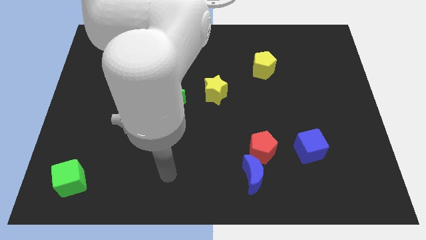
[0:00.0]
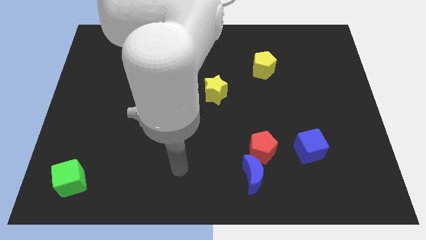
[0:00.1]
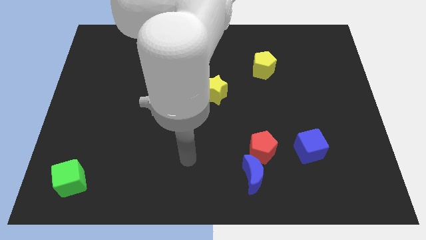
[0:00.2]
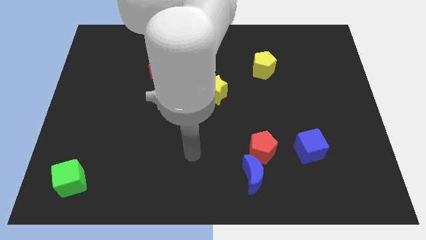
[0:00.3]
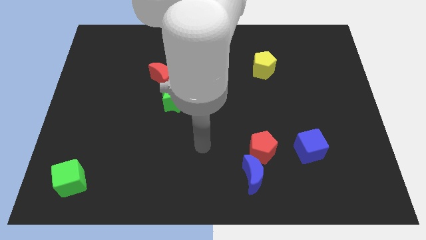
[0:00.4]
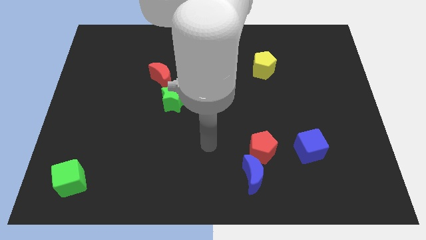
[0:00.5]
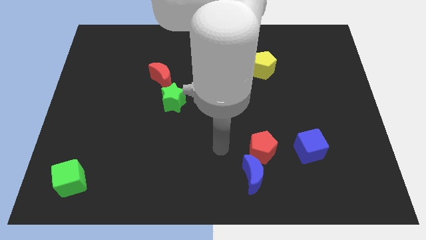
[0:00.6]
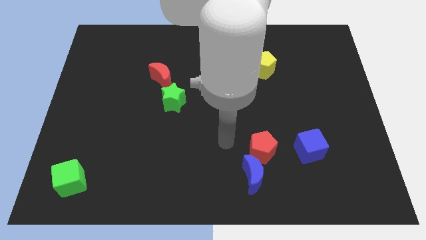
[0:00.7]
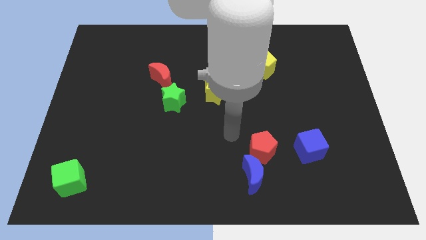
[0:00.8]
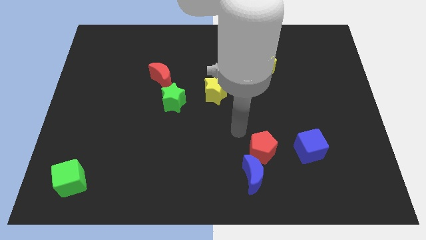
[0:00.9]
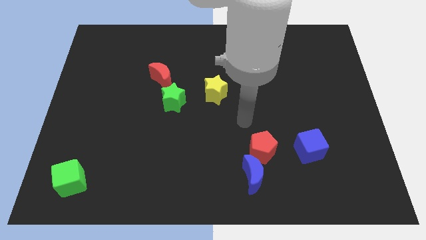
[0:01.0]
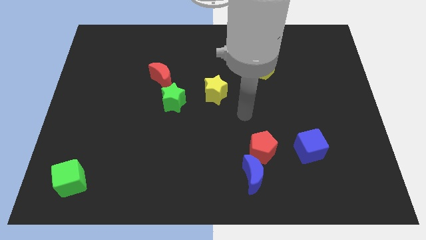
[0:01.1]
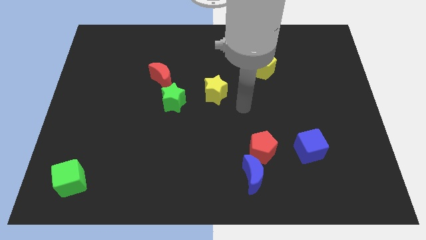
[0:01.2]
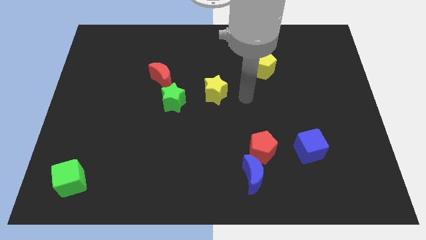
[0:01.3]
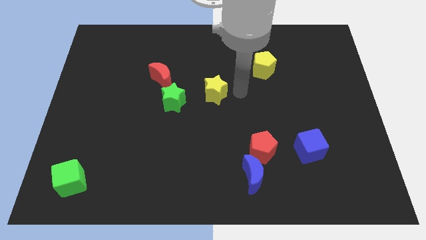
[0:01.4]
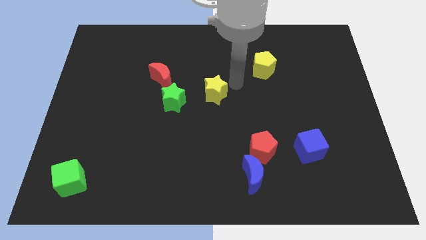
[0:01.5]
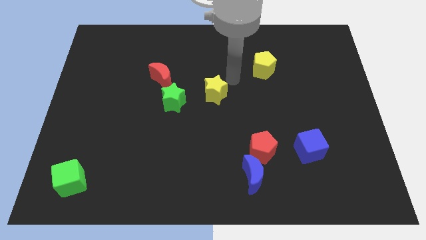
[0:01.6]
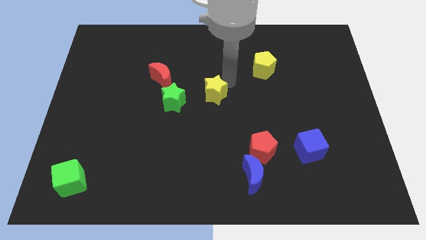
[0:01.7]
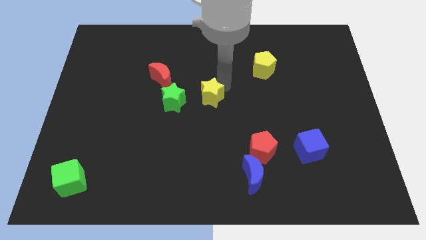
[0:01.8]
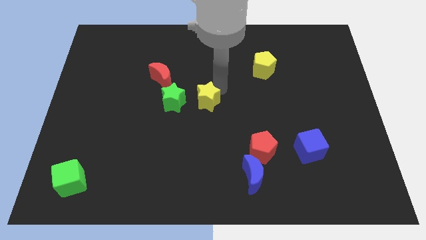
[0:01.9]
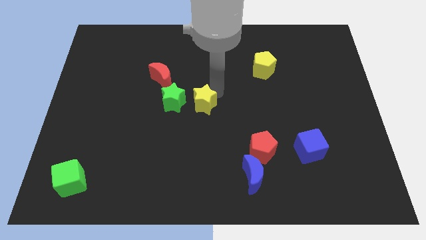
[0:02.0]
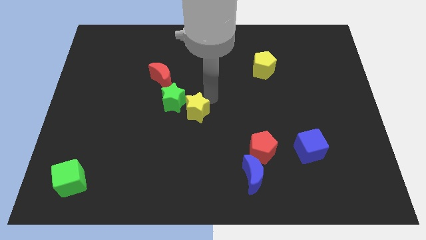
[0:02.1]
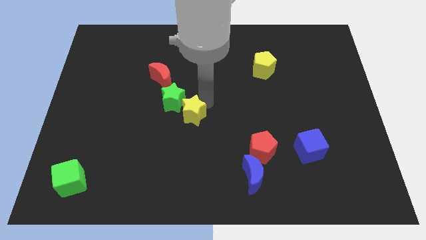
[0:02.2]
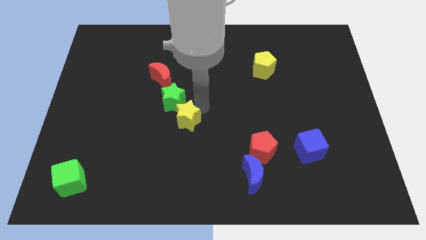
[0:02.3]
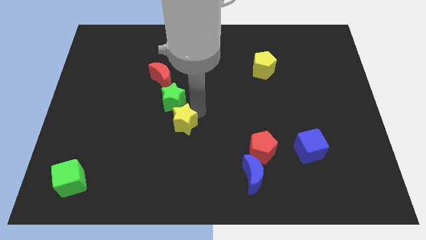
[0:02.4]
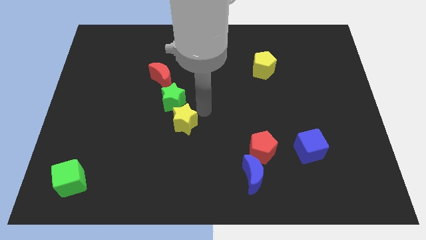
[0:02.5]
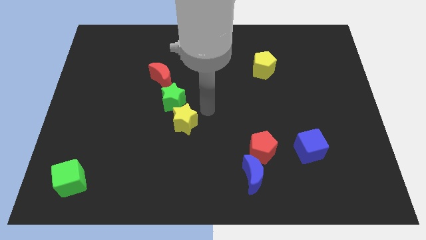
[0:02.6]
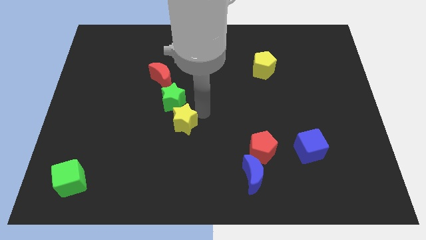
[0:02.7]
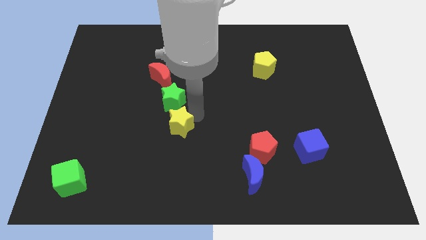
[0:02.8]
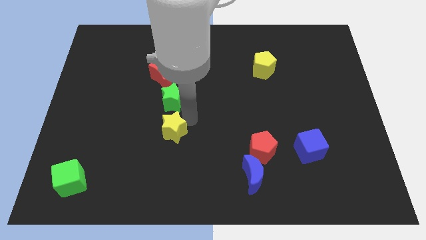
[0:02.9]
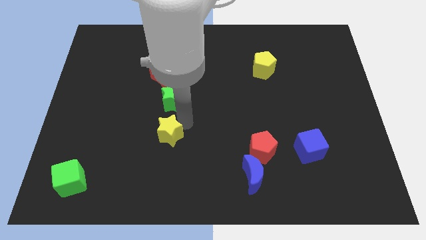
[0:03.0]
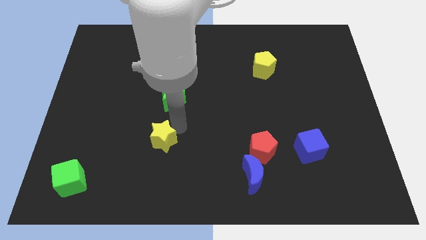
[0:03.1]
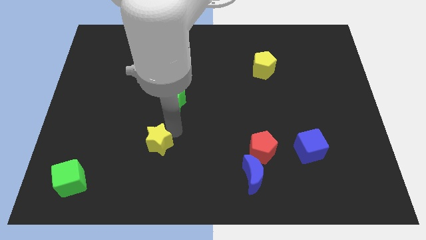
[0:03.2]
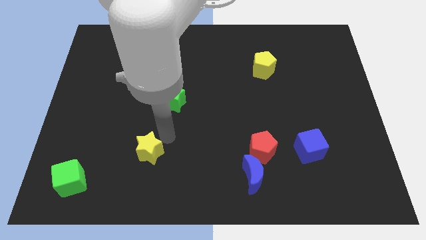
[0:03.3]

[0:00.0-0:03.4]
move the yellow star down and to the left

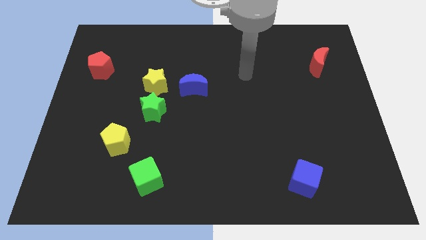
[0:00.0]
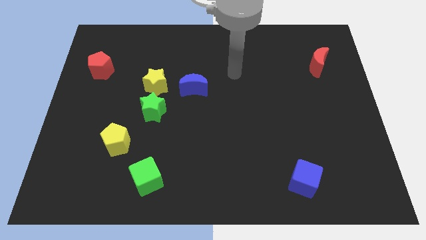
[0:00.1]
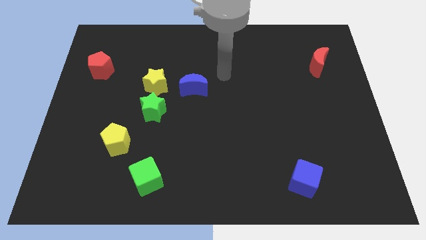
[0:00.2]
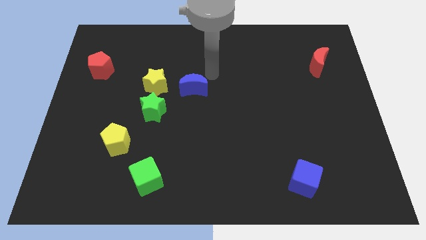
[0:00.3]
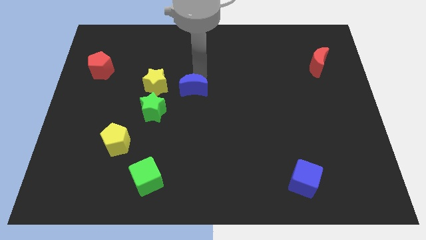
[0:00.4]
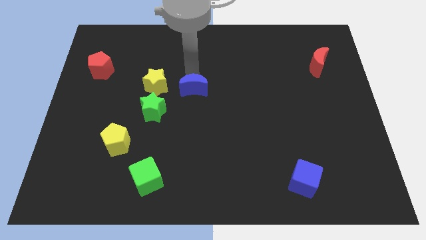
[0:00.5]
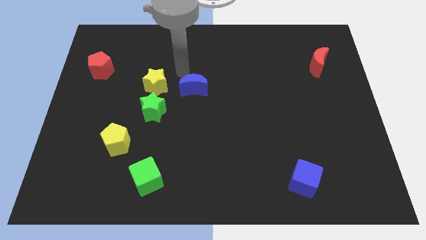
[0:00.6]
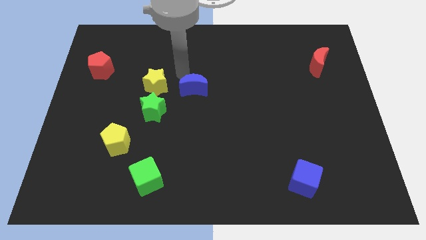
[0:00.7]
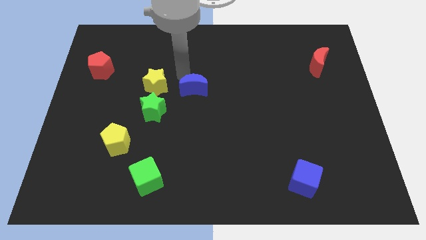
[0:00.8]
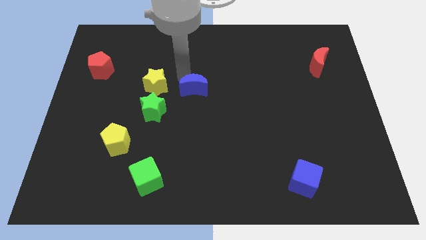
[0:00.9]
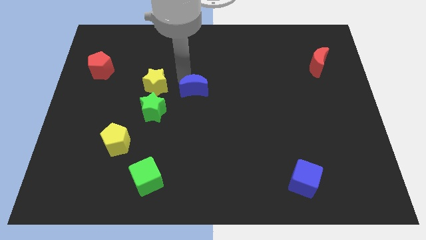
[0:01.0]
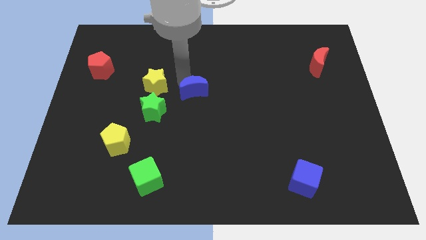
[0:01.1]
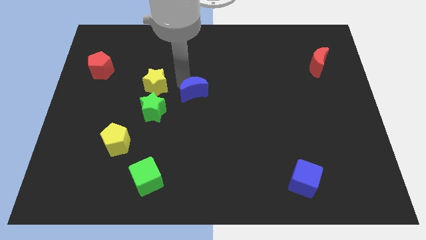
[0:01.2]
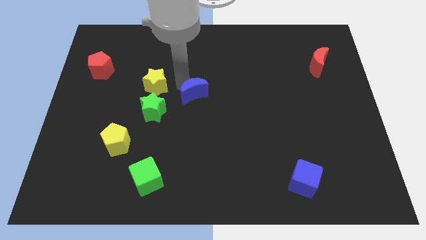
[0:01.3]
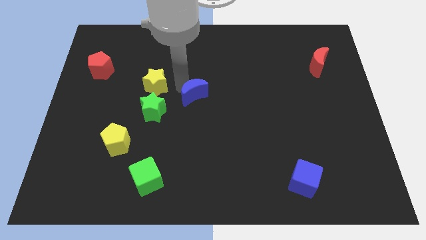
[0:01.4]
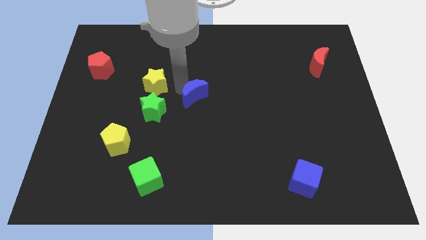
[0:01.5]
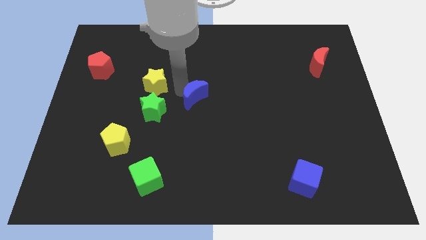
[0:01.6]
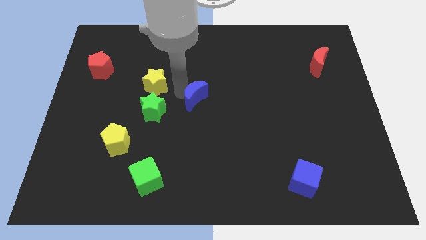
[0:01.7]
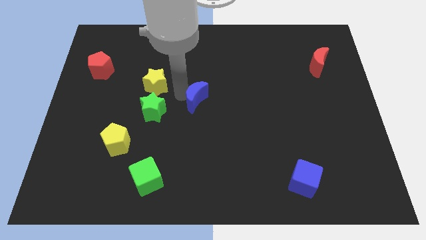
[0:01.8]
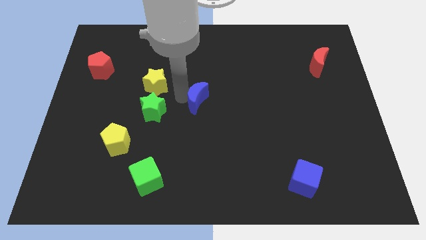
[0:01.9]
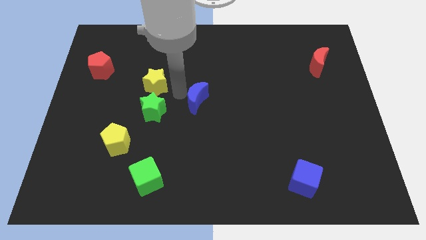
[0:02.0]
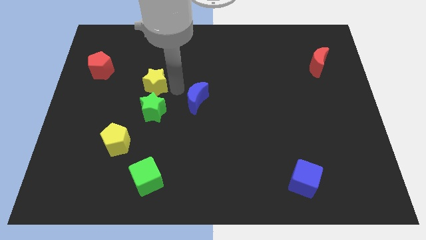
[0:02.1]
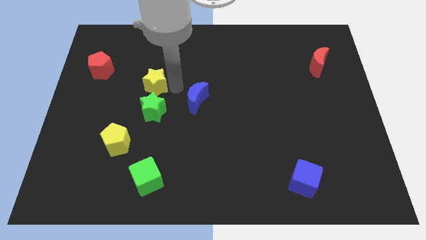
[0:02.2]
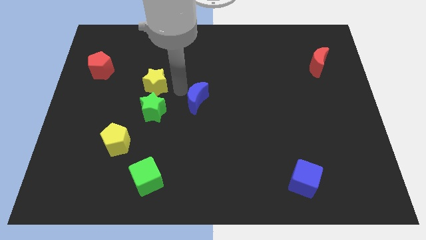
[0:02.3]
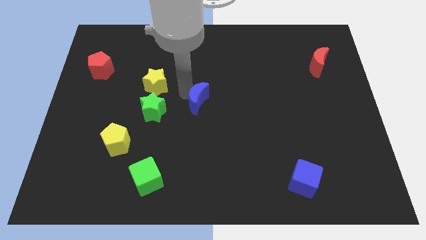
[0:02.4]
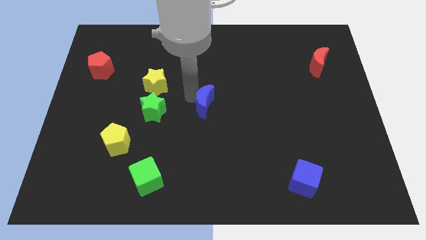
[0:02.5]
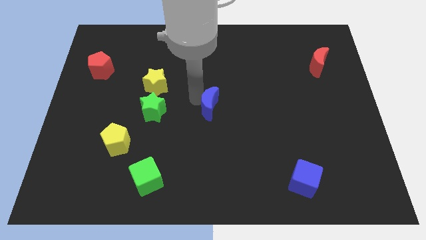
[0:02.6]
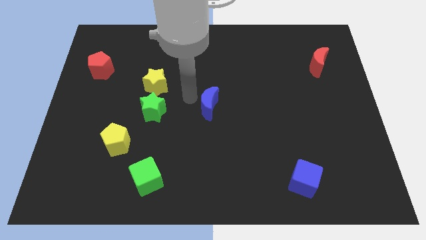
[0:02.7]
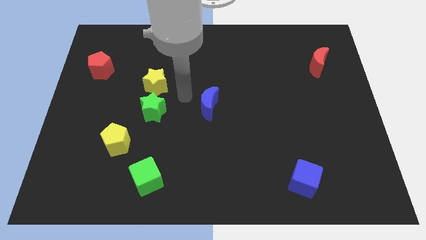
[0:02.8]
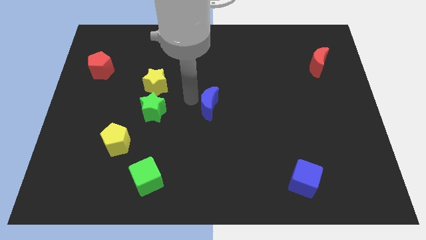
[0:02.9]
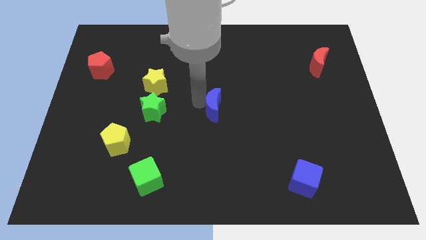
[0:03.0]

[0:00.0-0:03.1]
push the blue moon diagonally down and to the right a little bit

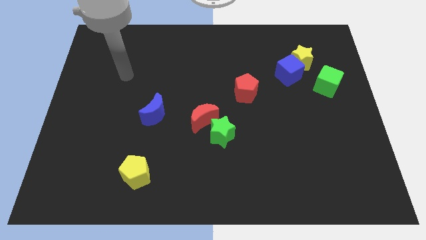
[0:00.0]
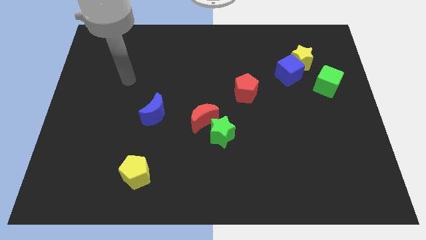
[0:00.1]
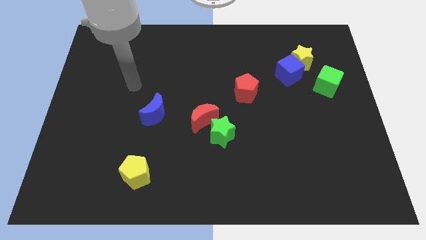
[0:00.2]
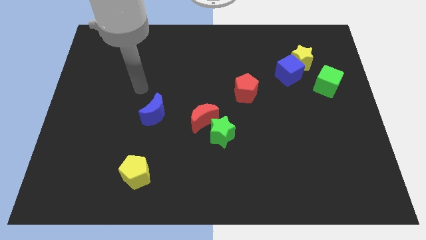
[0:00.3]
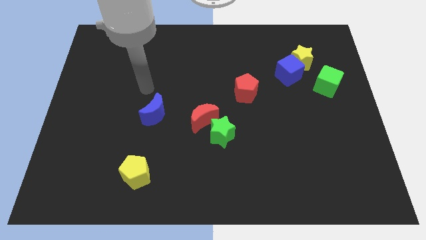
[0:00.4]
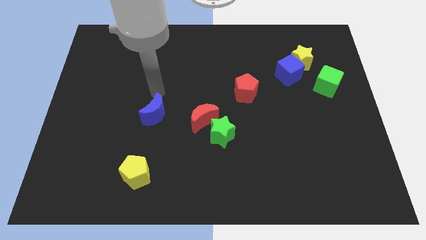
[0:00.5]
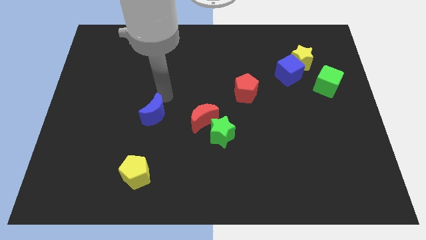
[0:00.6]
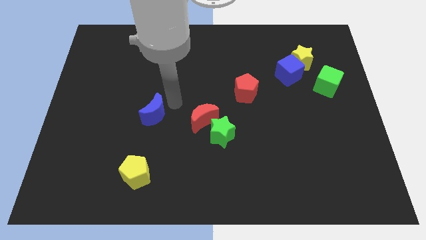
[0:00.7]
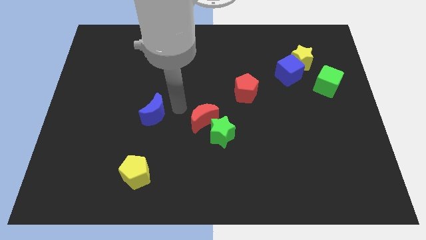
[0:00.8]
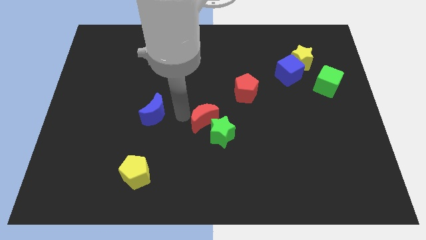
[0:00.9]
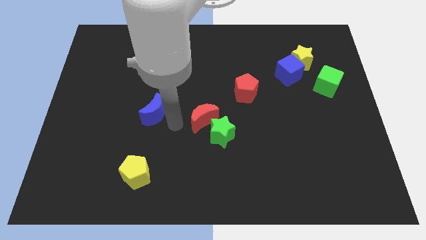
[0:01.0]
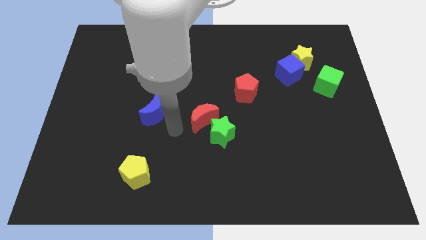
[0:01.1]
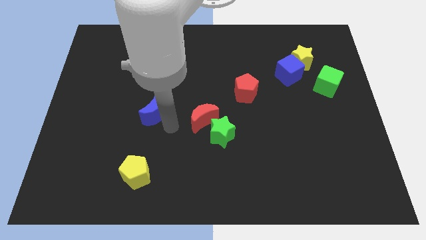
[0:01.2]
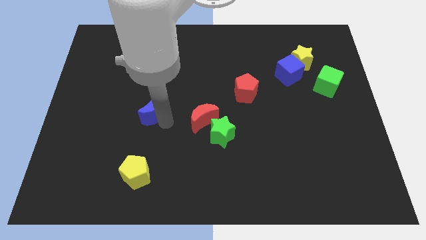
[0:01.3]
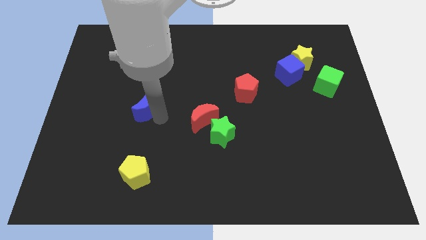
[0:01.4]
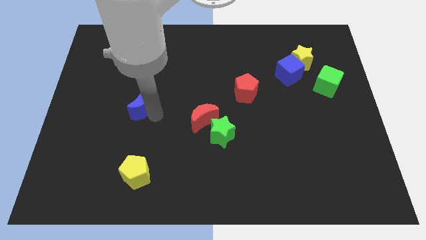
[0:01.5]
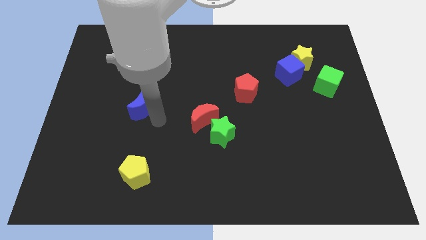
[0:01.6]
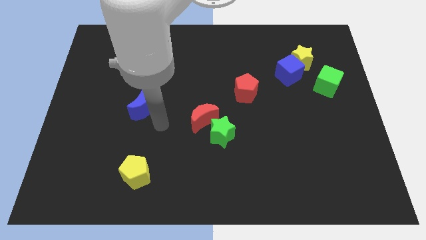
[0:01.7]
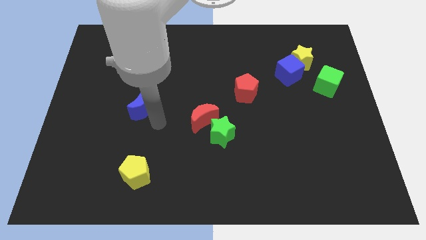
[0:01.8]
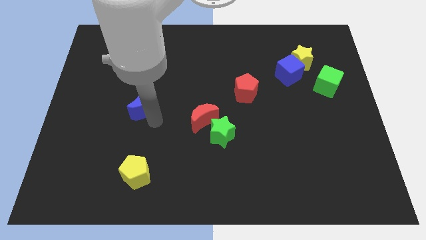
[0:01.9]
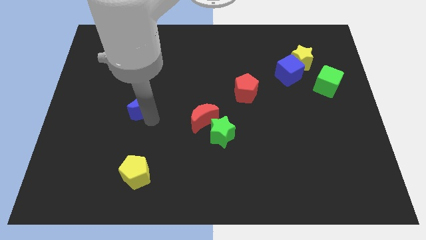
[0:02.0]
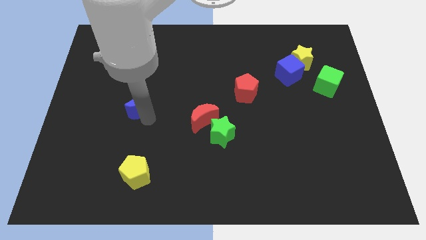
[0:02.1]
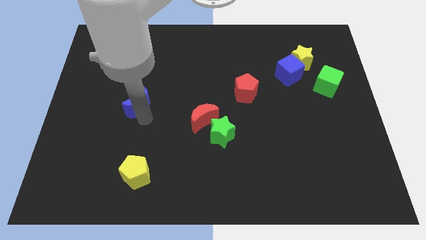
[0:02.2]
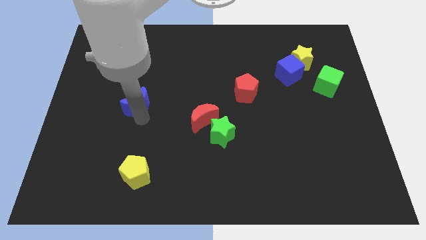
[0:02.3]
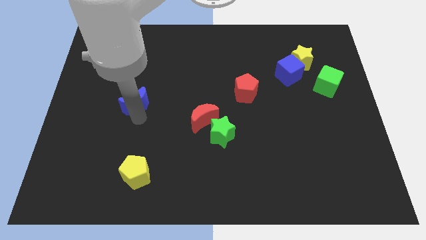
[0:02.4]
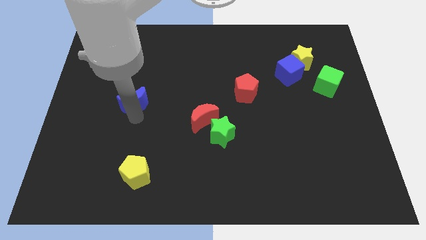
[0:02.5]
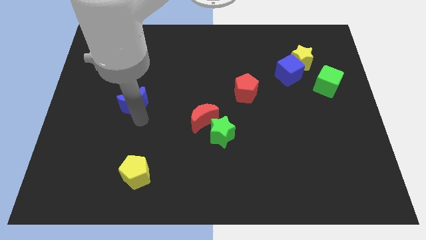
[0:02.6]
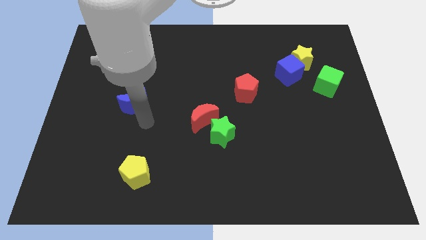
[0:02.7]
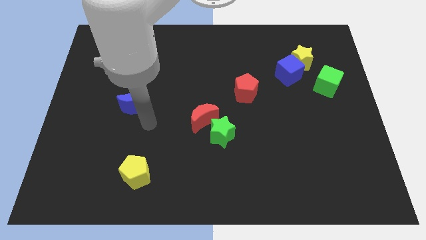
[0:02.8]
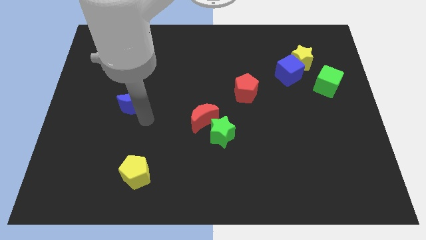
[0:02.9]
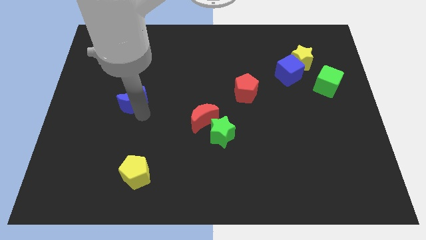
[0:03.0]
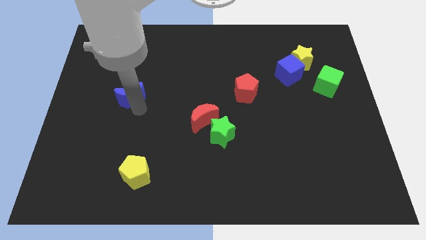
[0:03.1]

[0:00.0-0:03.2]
move the blue moon up and then to the left somewhat
